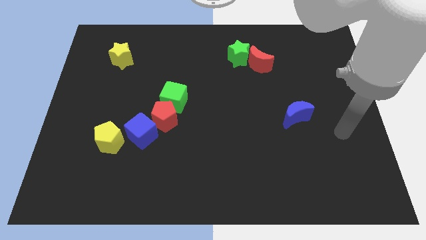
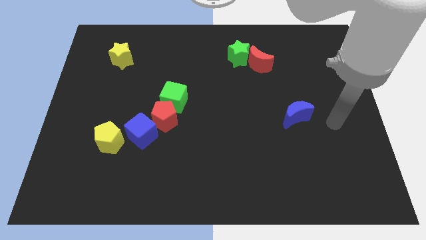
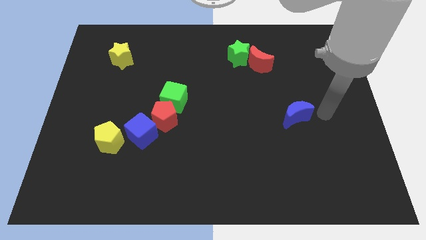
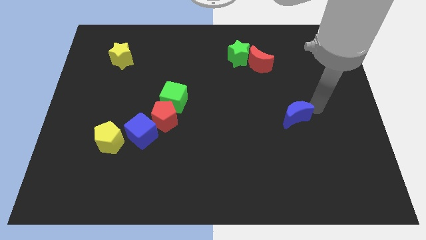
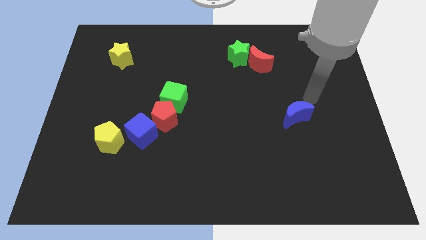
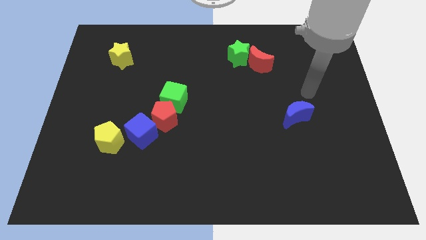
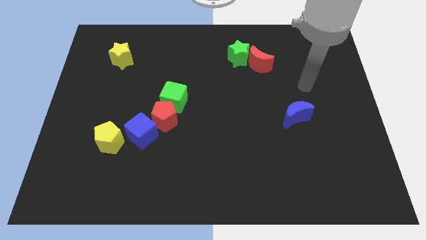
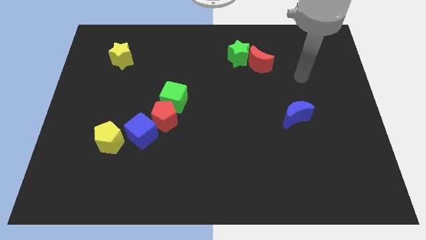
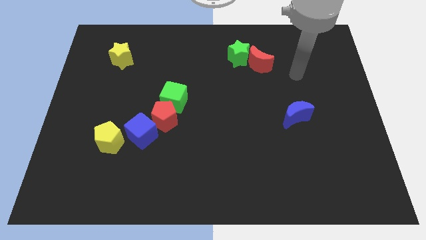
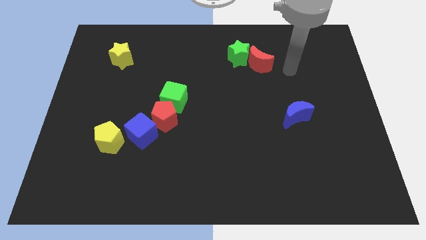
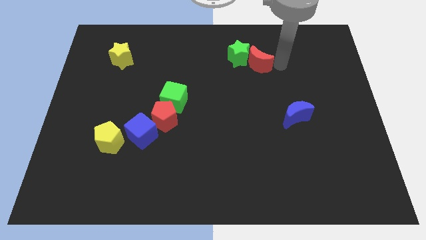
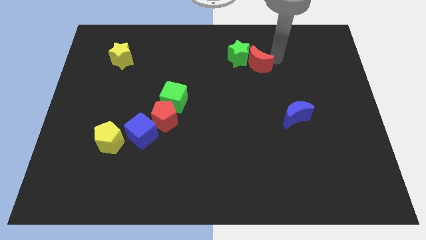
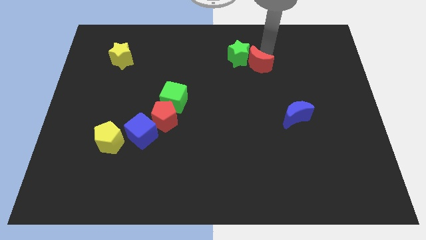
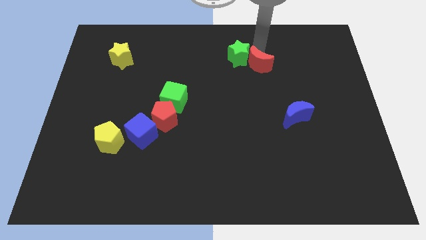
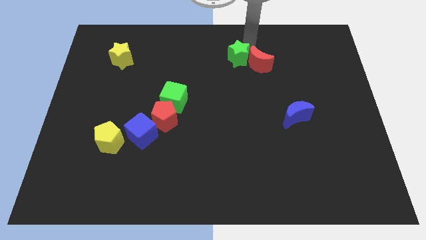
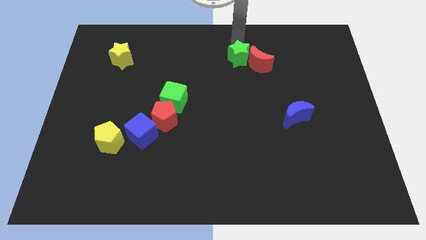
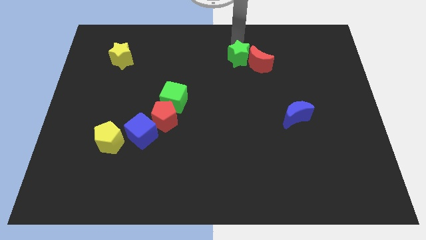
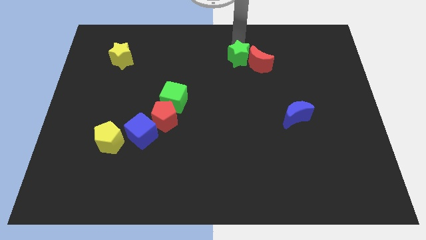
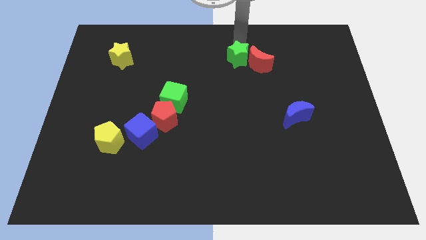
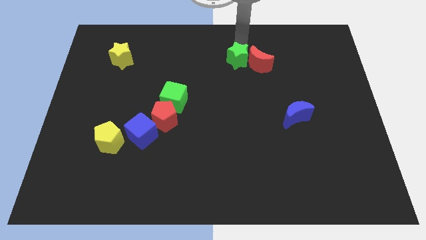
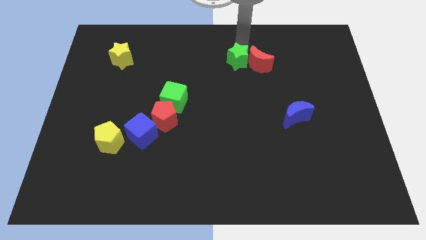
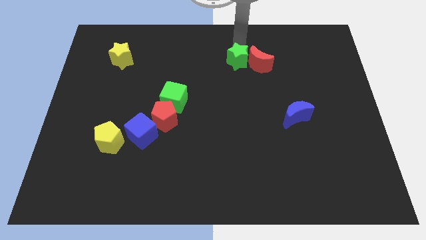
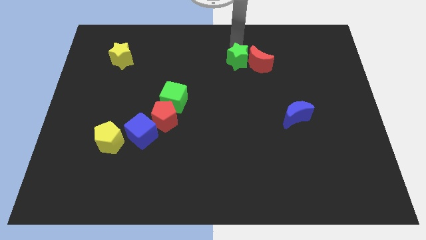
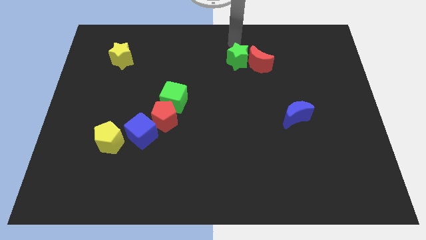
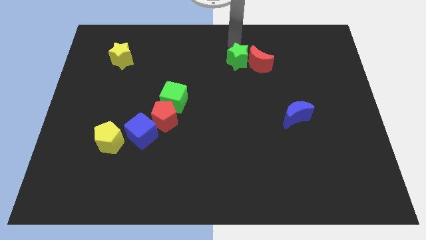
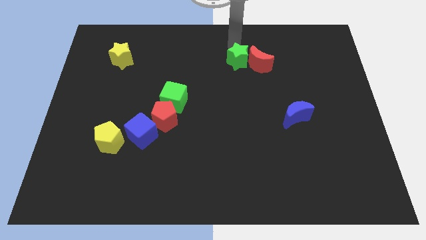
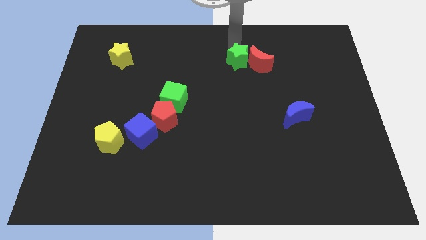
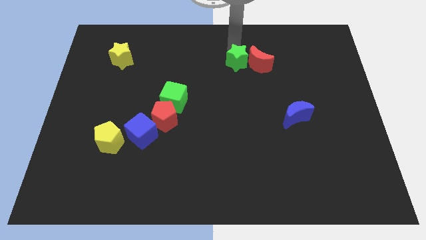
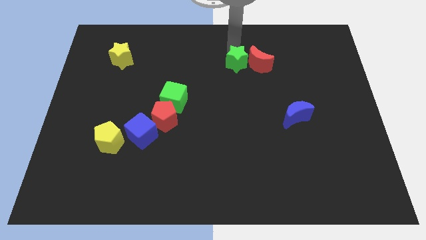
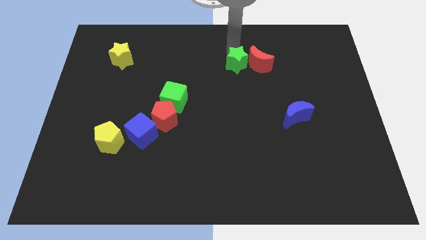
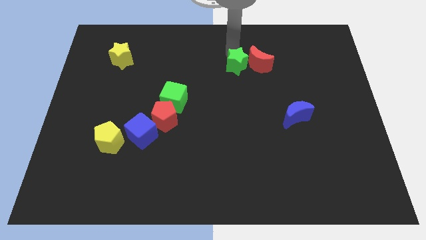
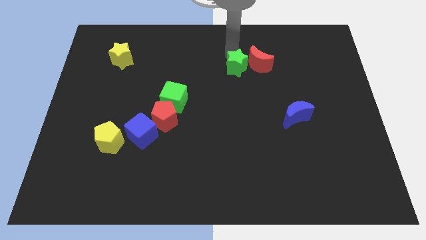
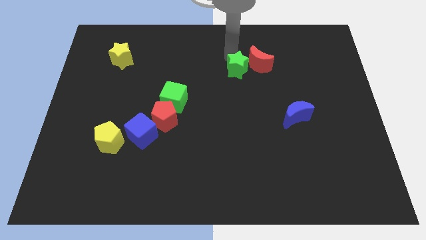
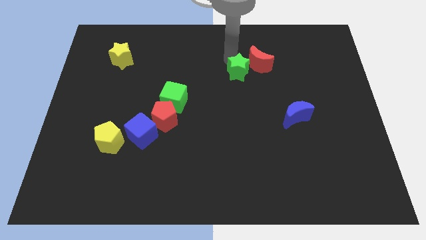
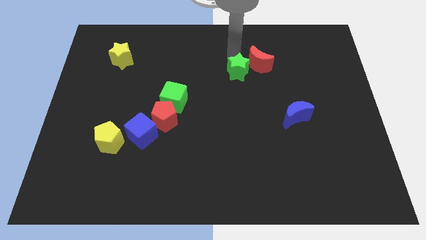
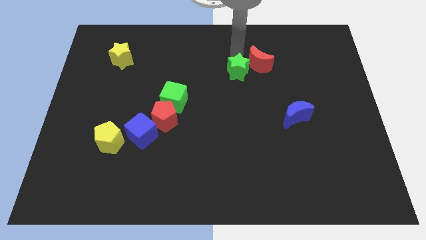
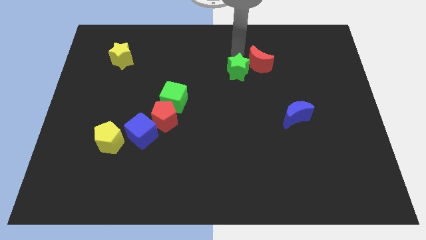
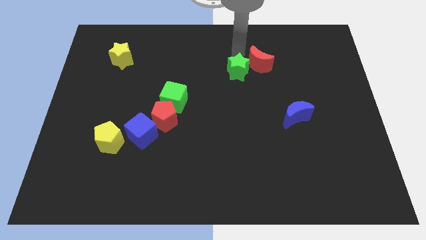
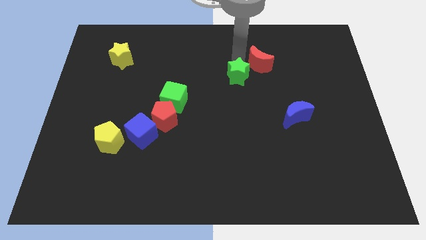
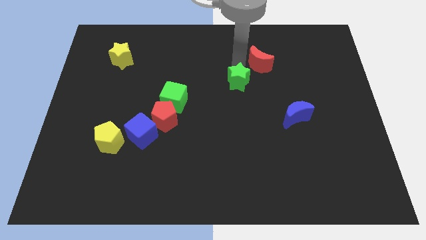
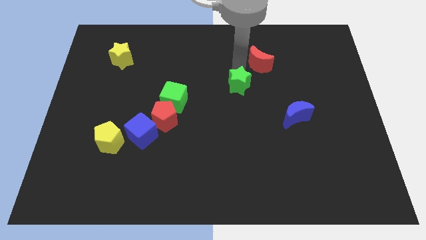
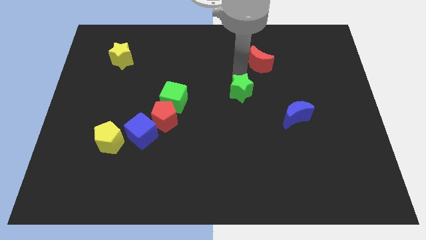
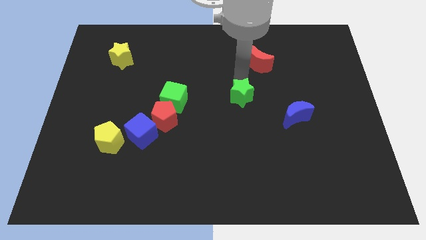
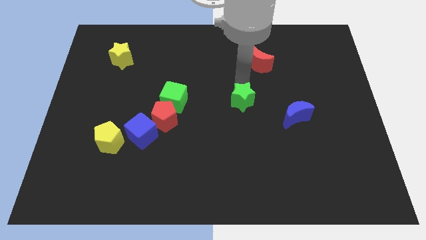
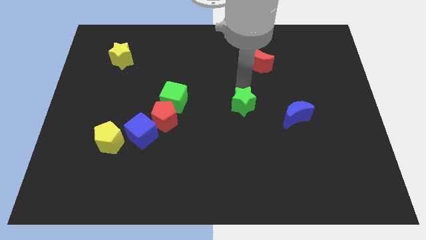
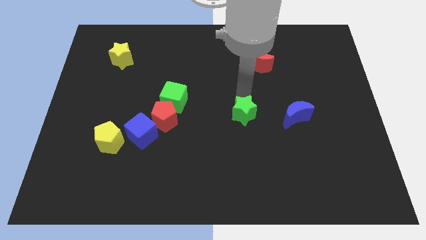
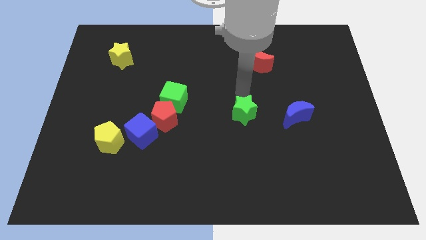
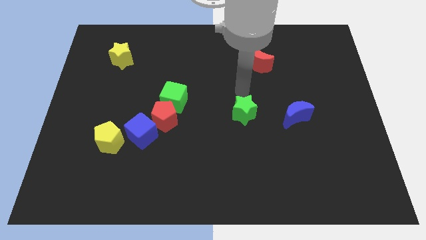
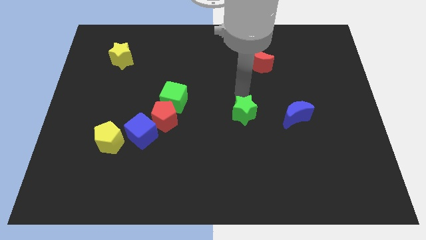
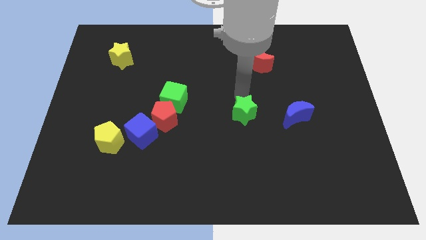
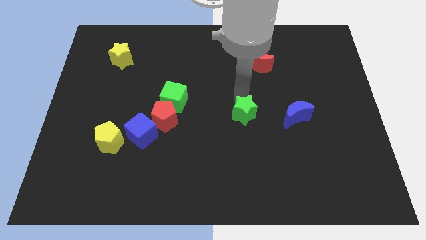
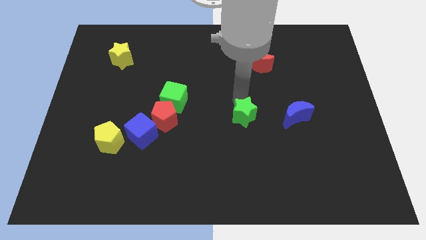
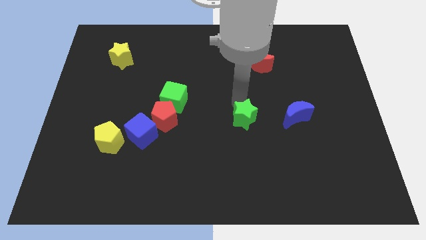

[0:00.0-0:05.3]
move the green star down

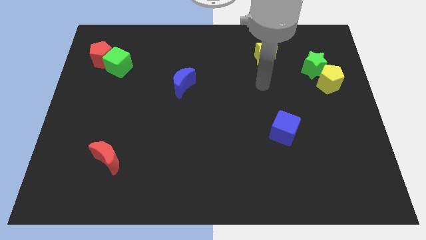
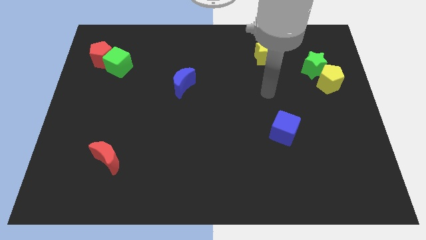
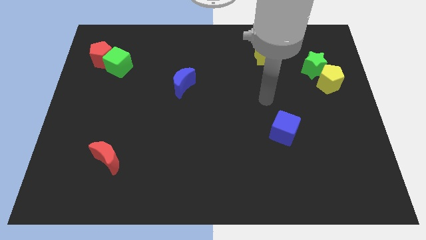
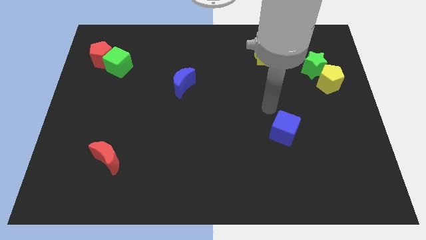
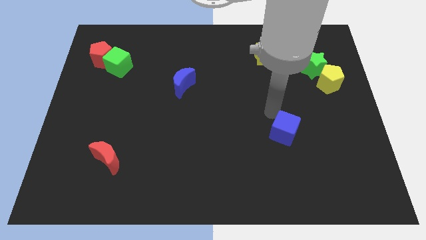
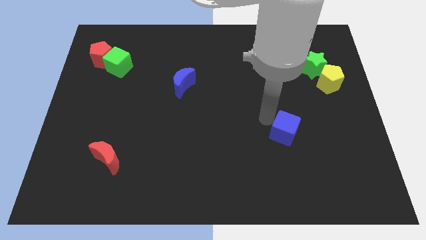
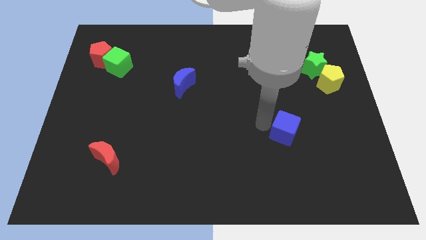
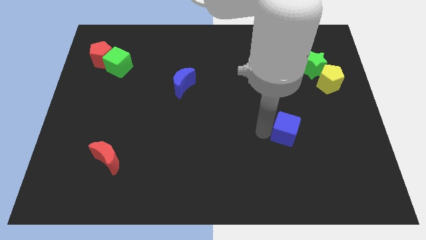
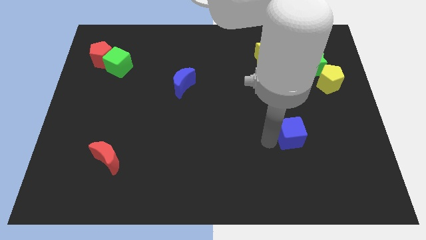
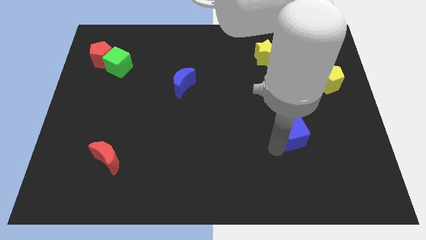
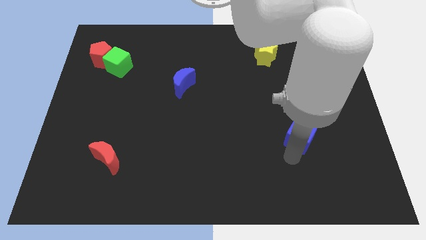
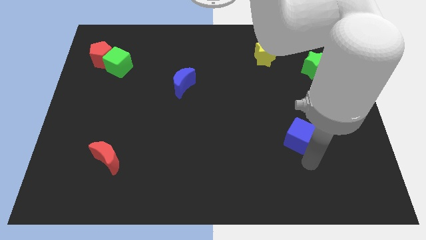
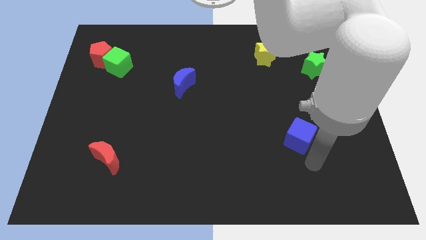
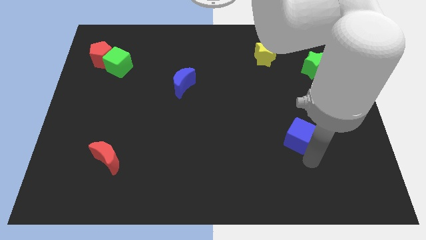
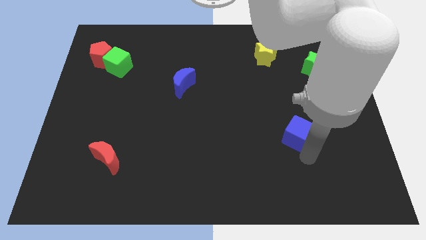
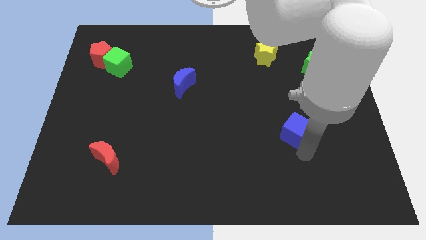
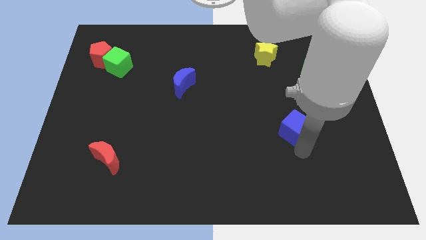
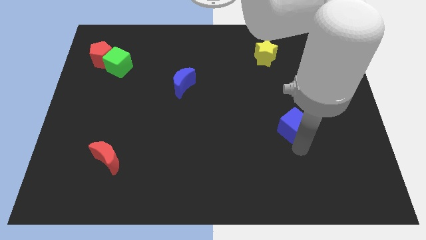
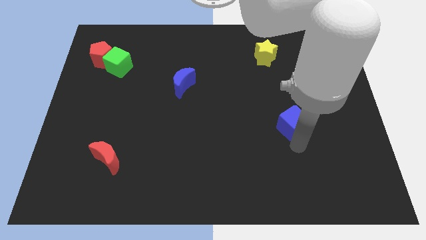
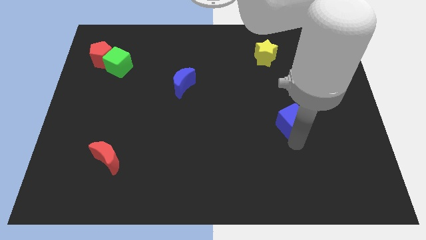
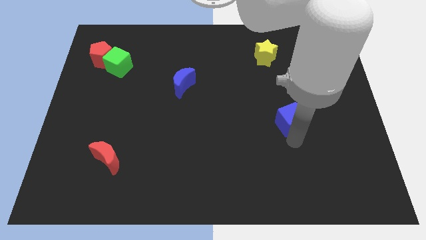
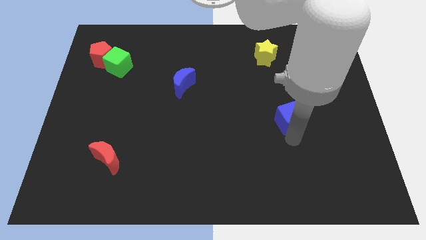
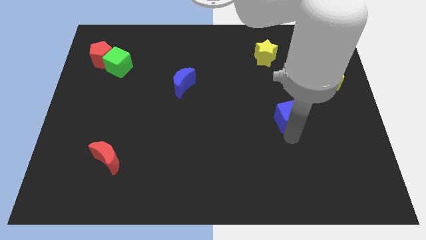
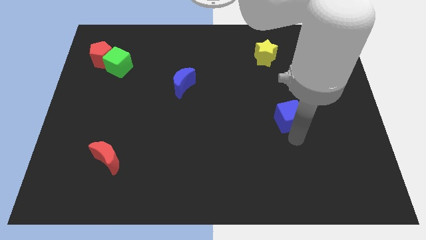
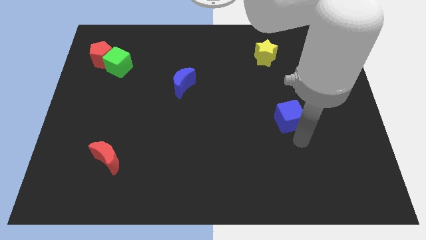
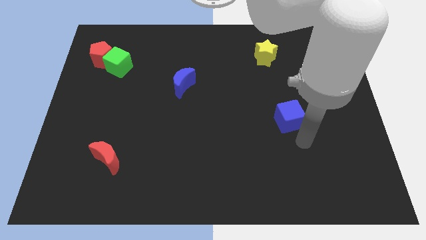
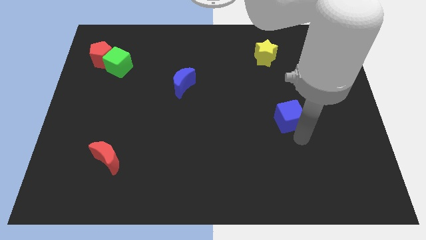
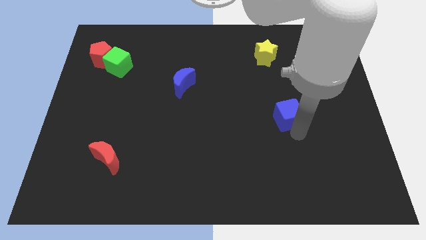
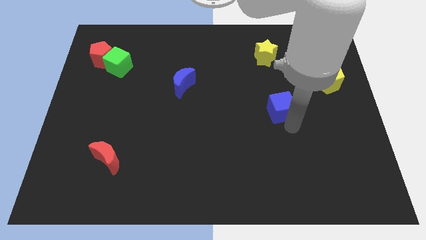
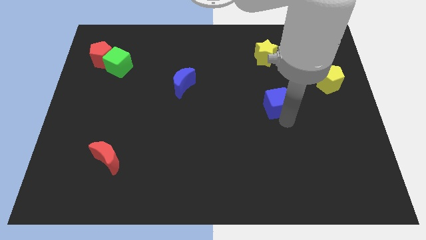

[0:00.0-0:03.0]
slide the blue cube up a bit
